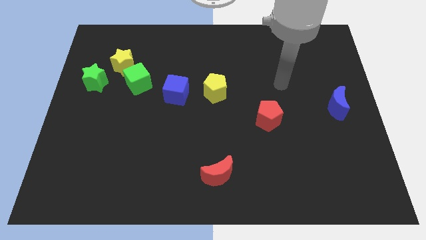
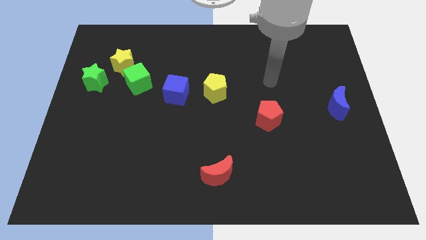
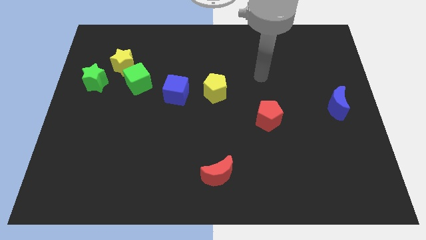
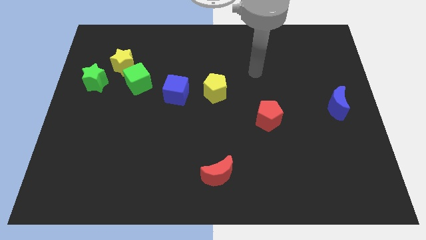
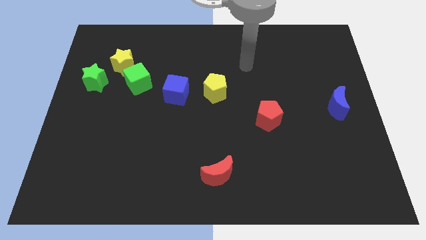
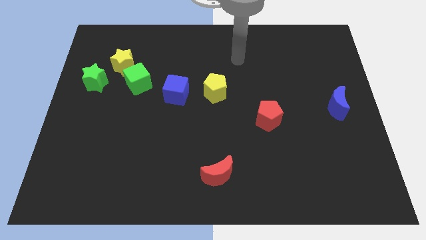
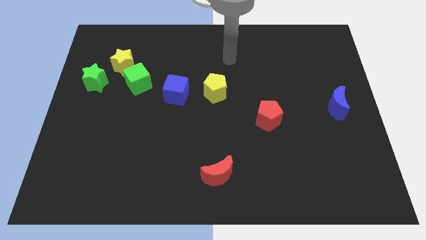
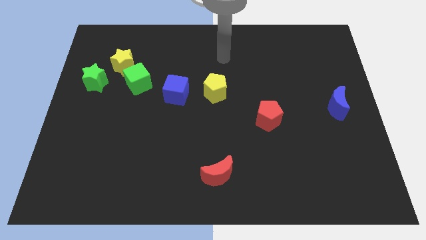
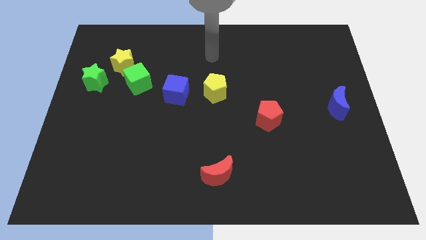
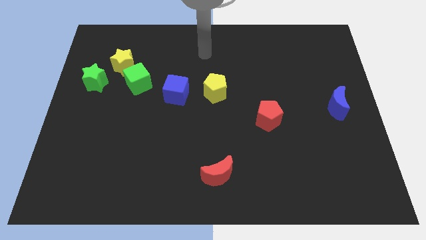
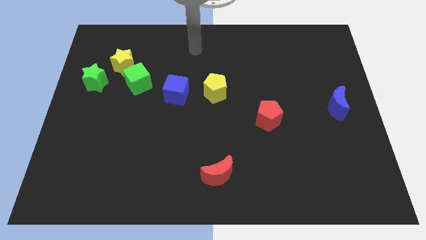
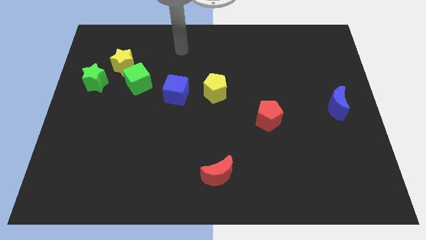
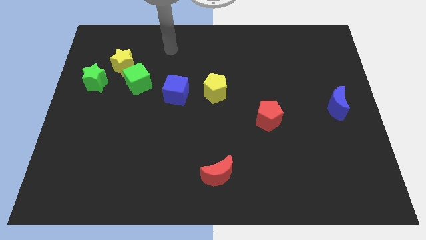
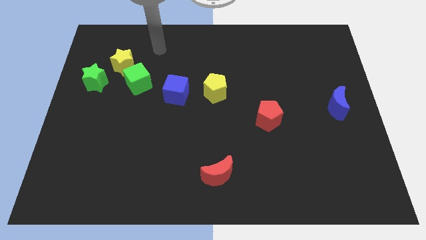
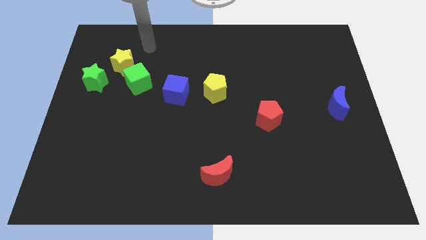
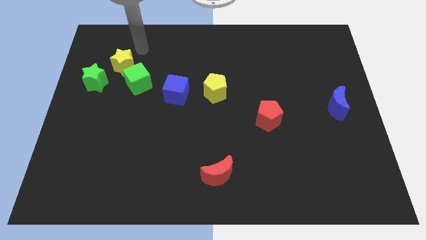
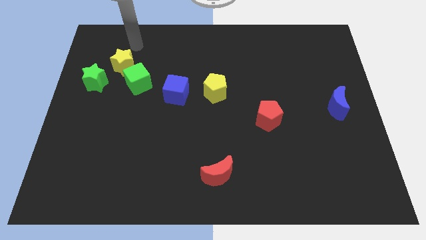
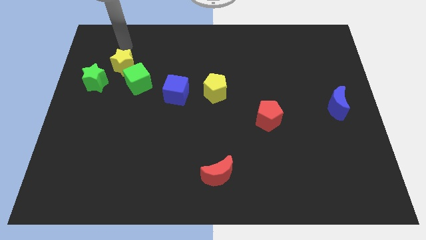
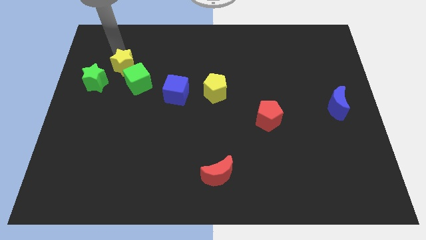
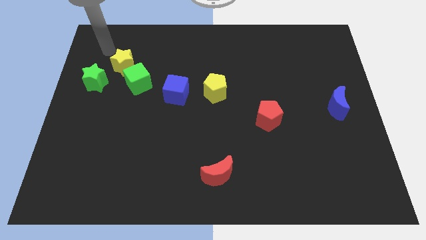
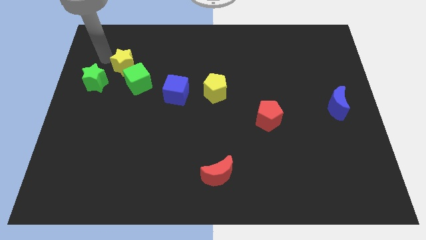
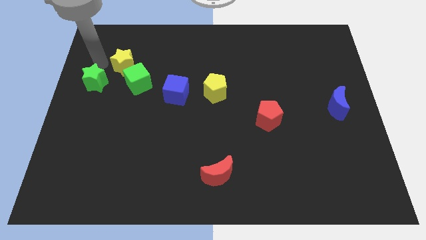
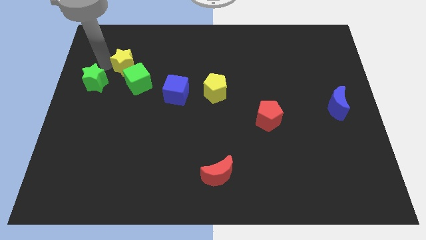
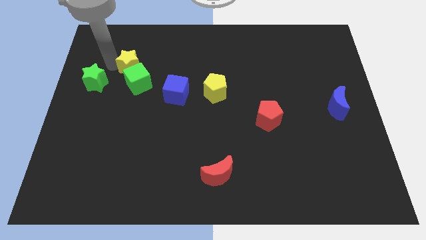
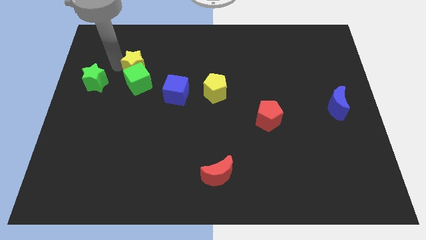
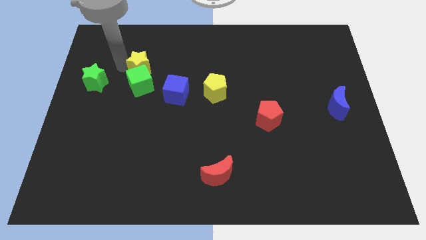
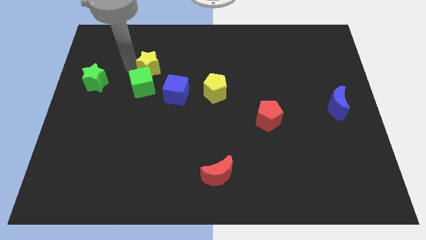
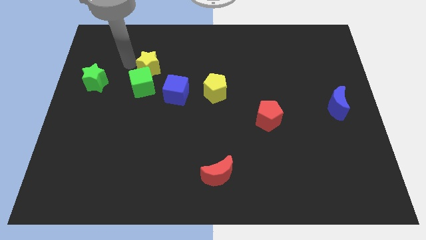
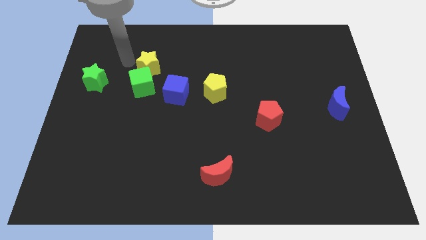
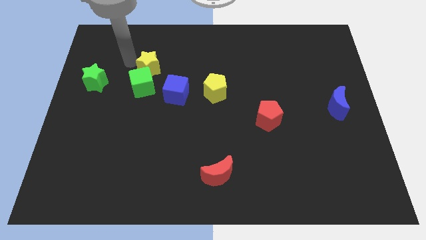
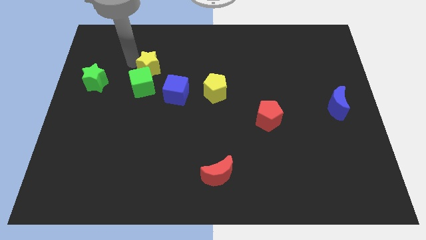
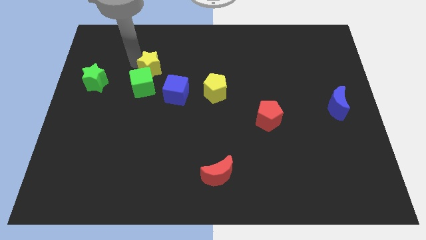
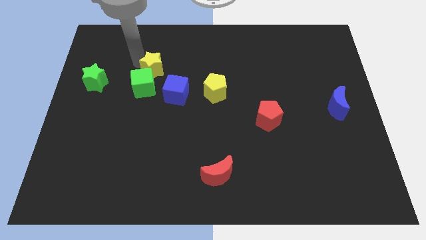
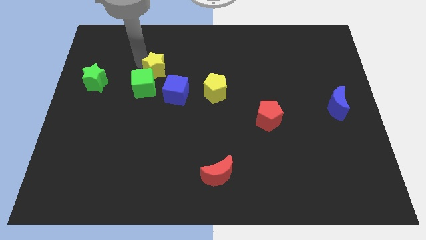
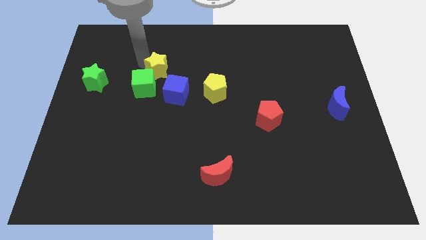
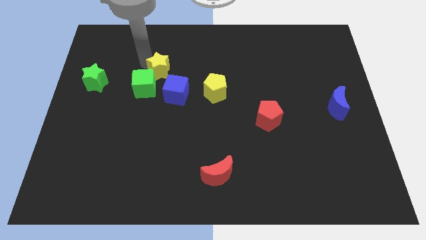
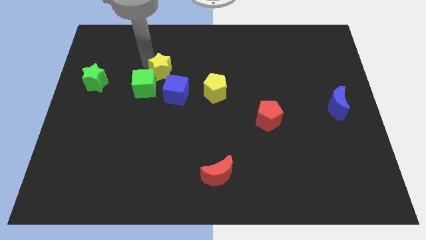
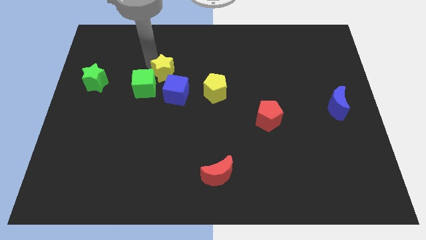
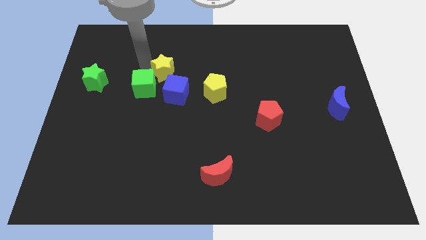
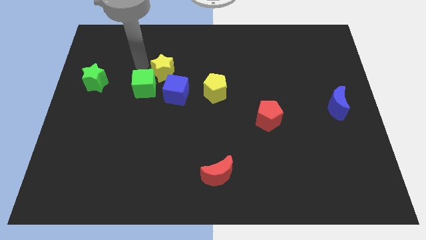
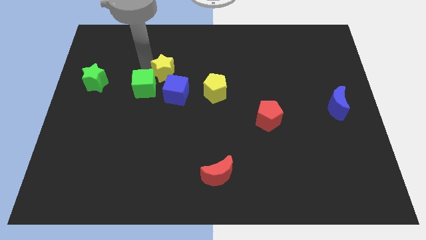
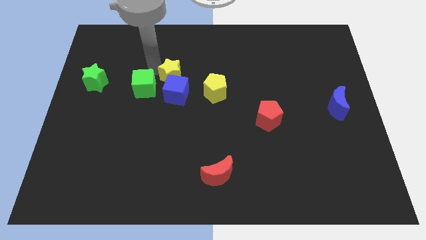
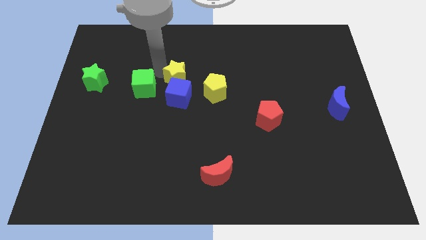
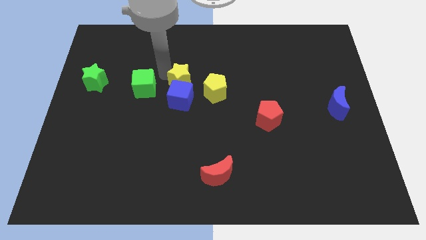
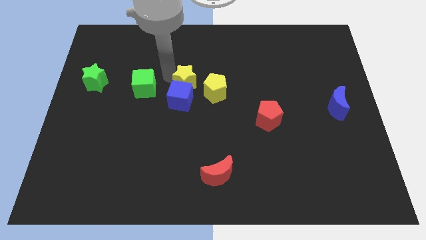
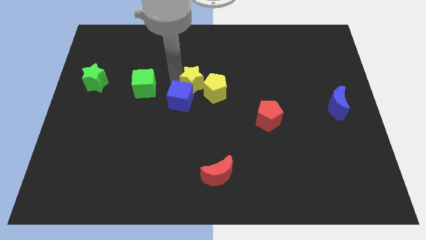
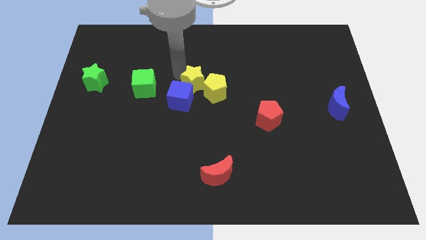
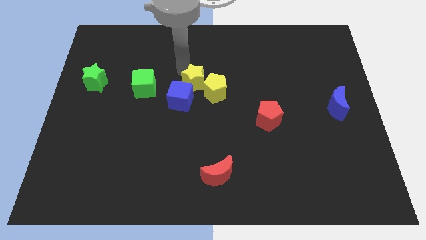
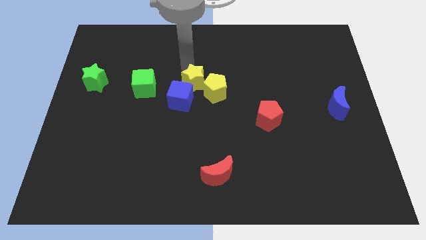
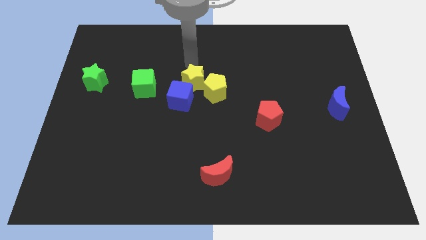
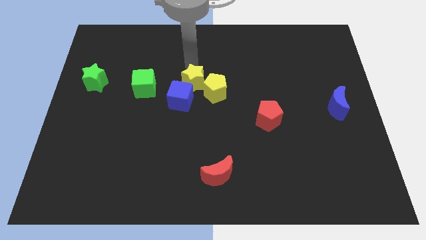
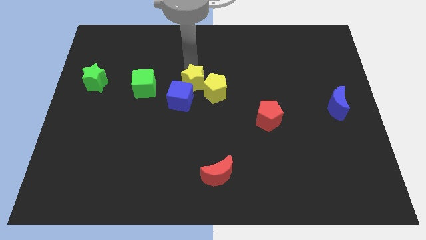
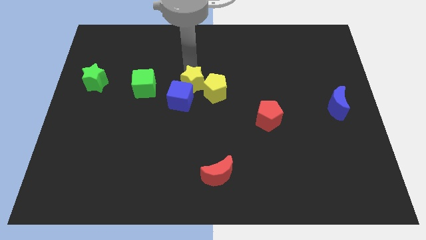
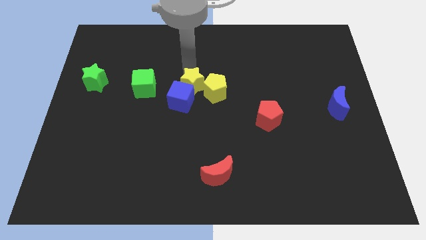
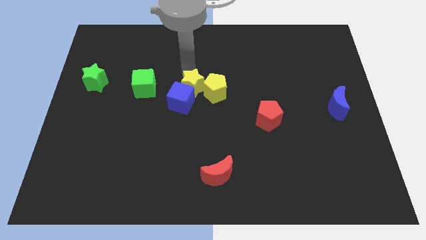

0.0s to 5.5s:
push the yellow star just right of the blue cube

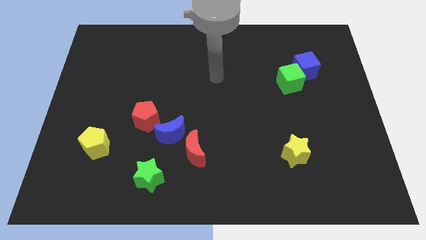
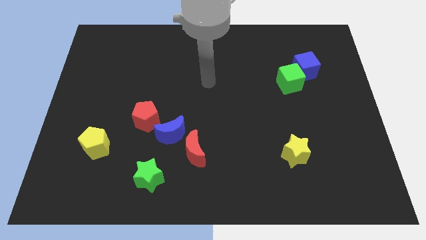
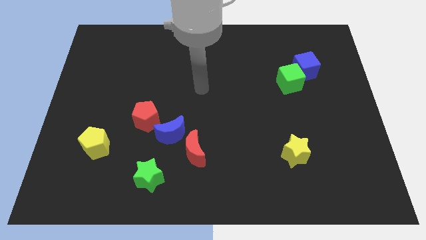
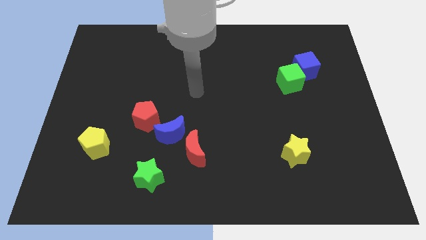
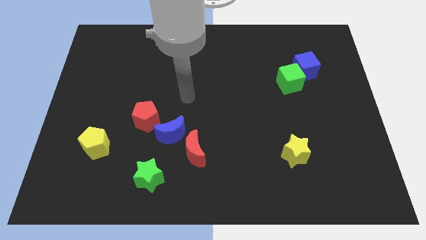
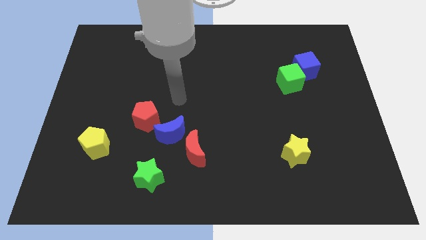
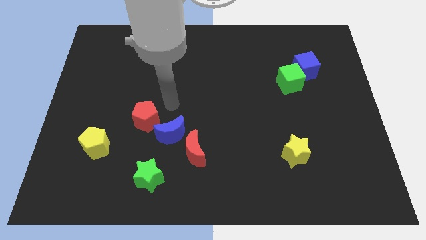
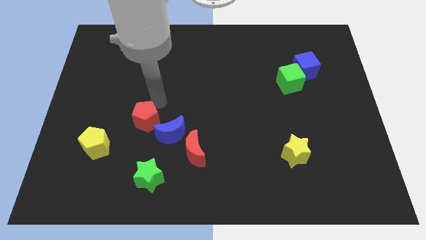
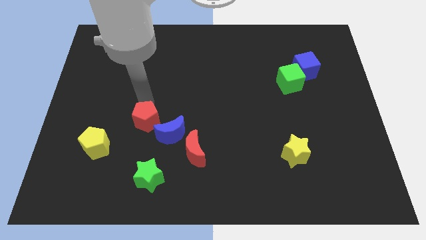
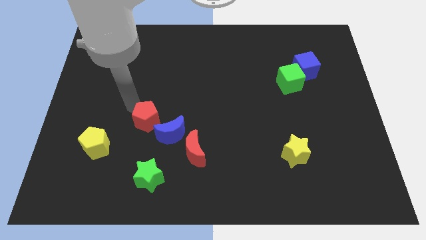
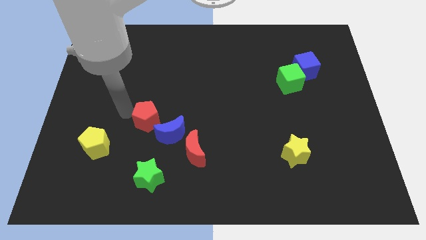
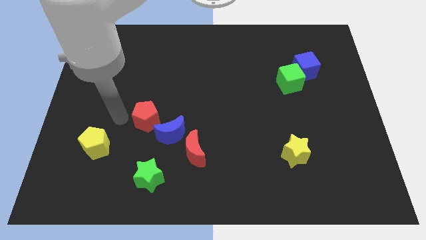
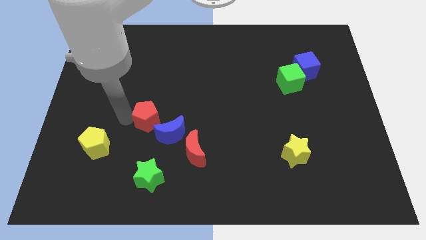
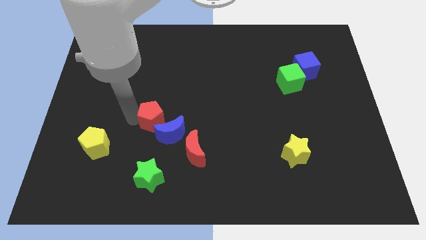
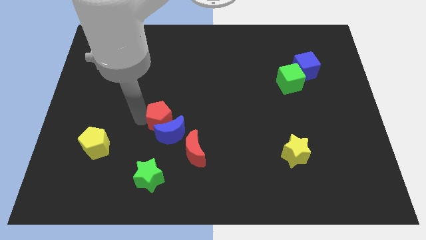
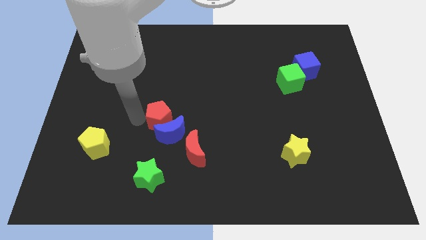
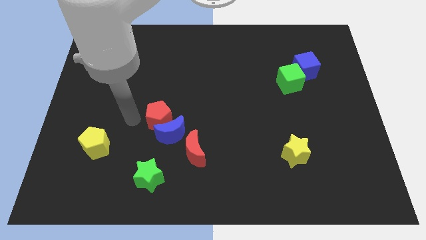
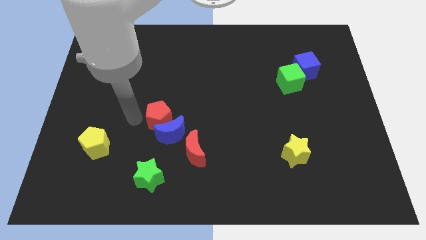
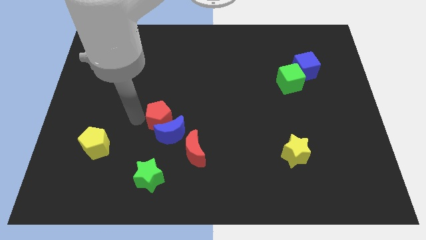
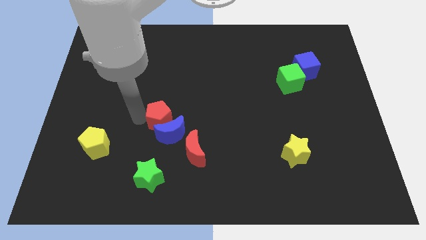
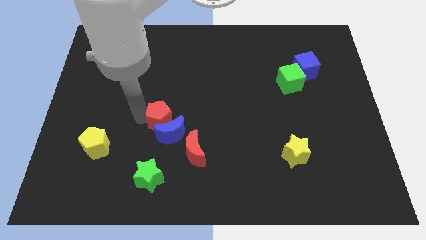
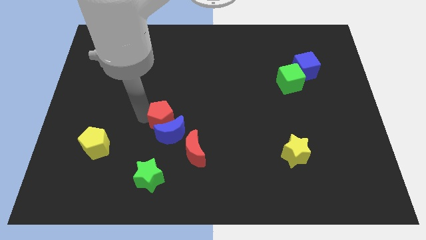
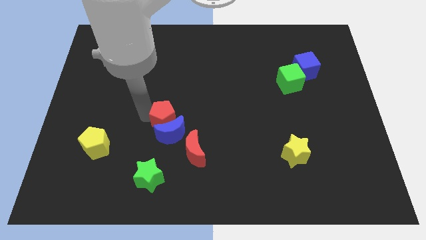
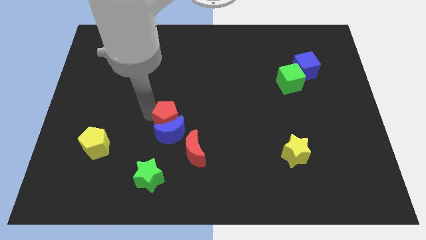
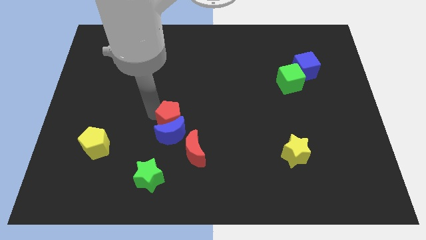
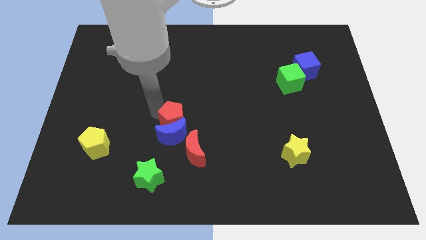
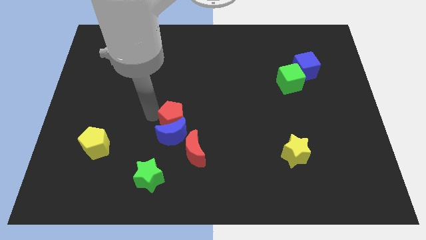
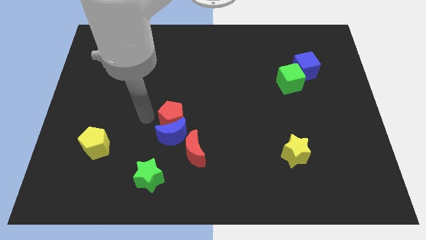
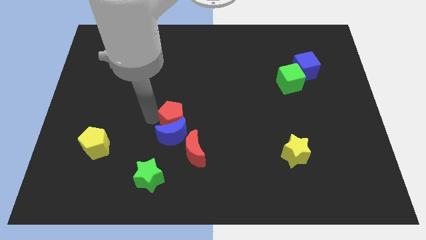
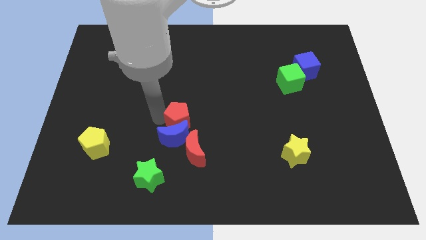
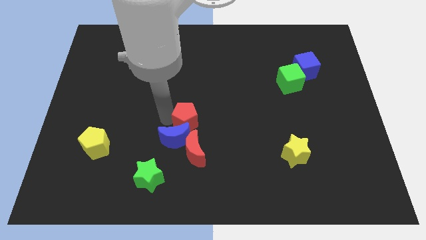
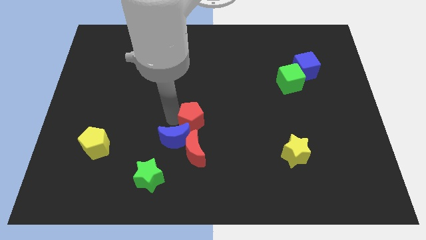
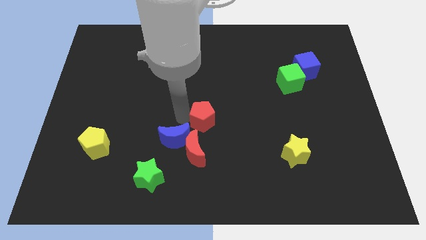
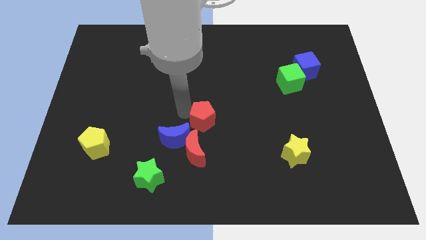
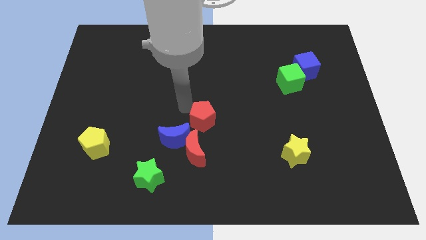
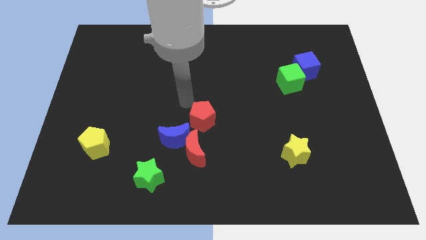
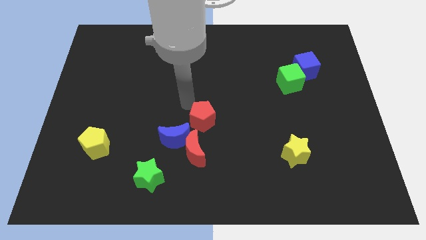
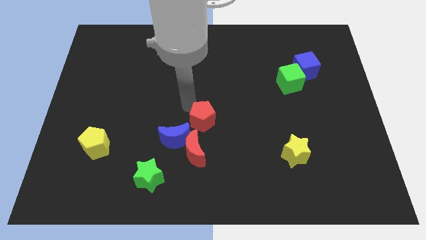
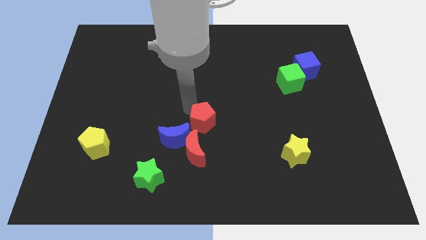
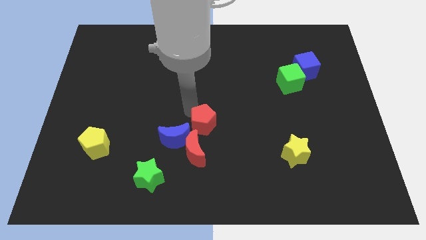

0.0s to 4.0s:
put the red pentagon just right of the blue moon
